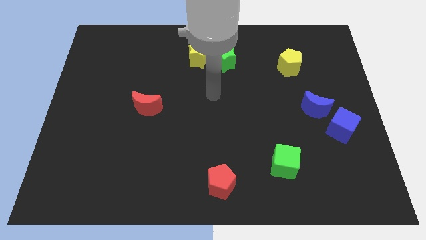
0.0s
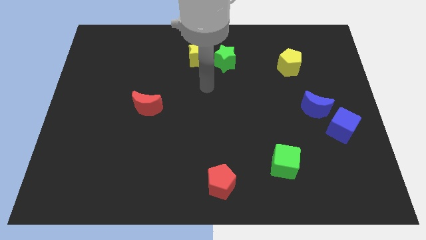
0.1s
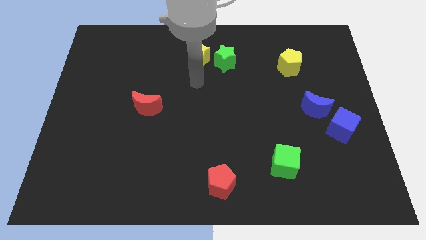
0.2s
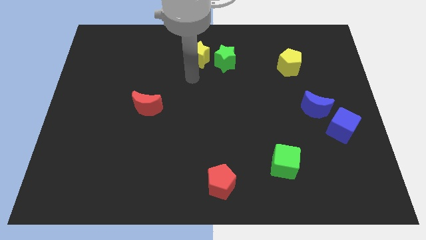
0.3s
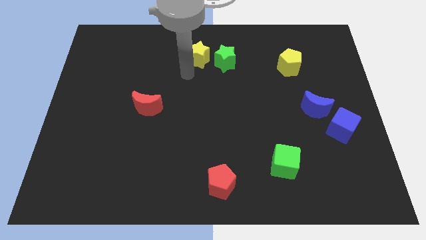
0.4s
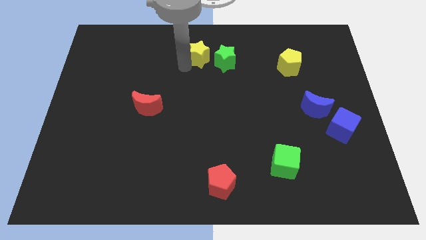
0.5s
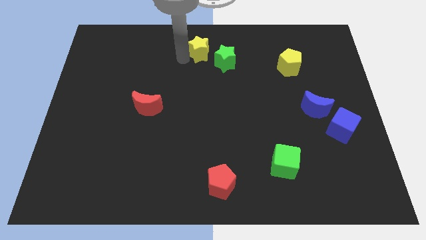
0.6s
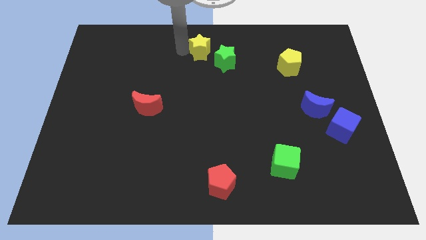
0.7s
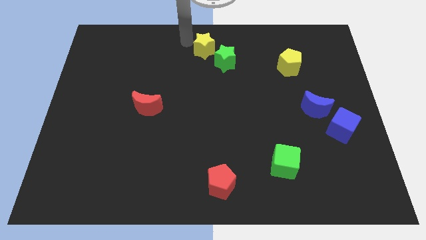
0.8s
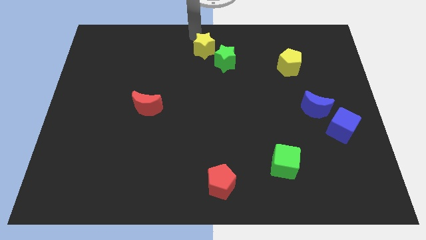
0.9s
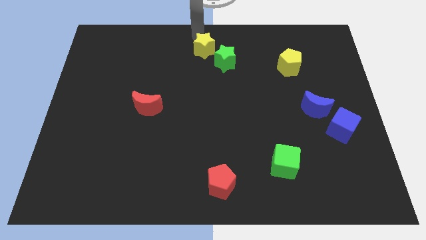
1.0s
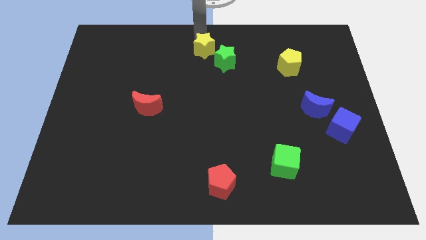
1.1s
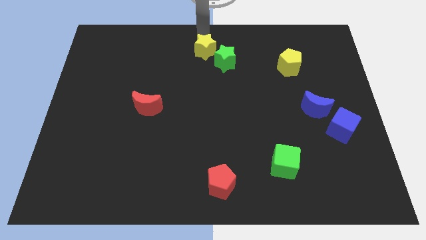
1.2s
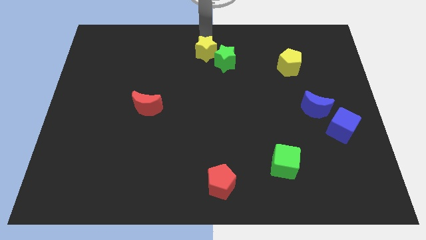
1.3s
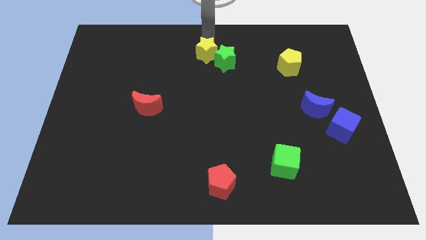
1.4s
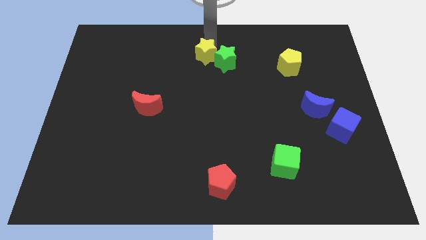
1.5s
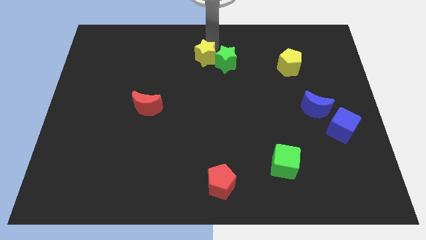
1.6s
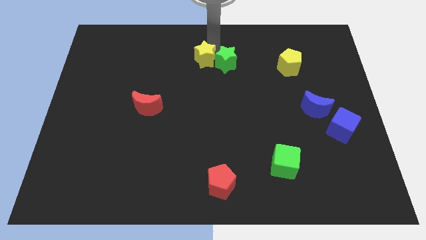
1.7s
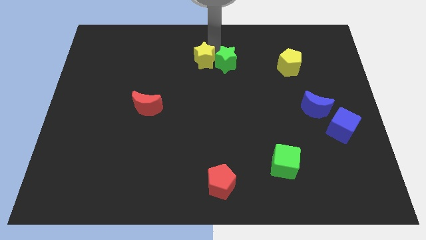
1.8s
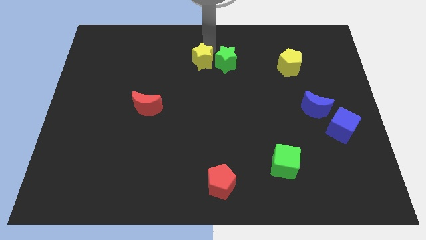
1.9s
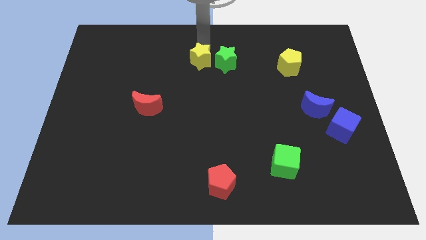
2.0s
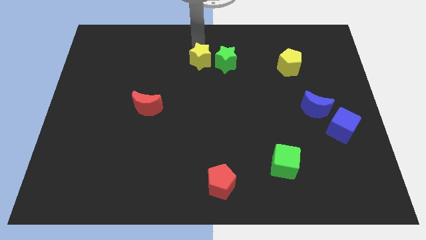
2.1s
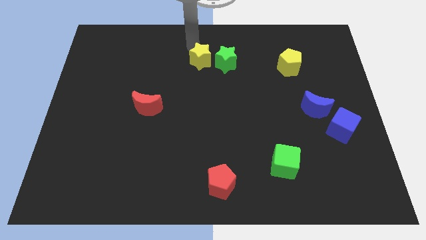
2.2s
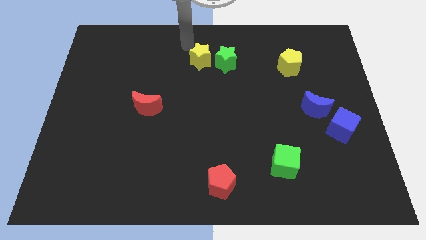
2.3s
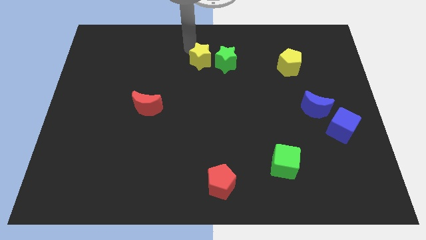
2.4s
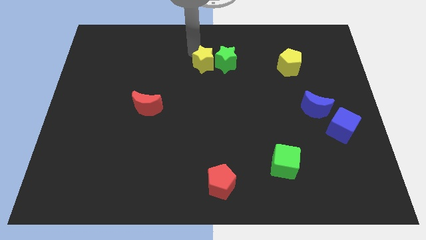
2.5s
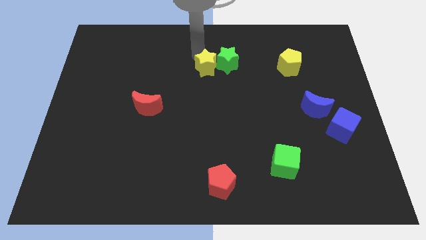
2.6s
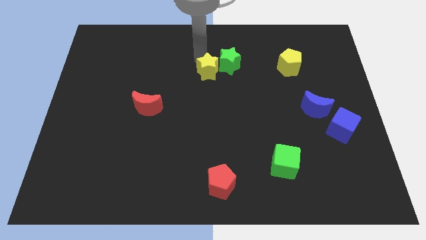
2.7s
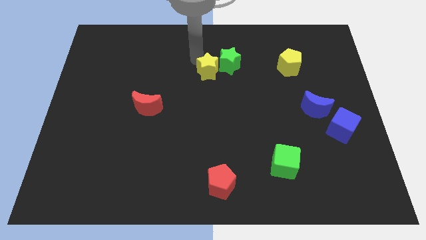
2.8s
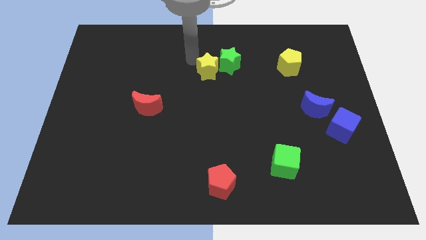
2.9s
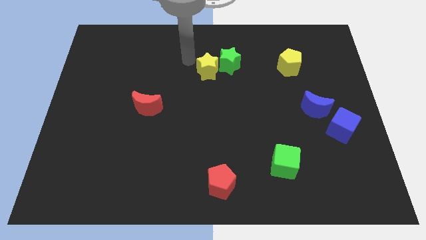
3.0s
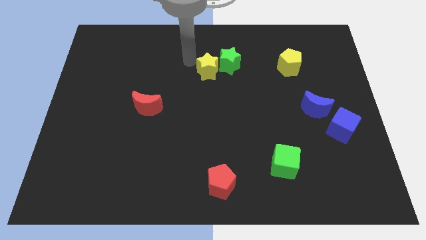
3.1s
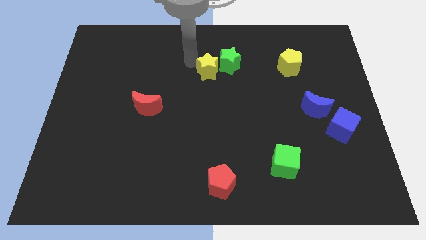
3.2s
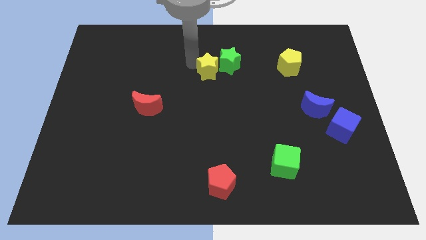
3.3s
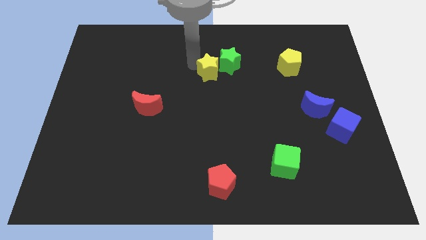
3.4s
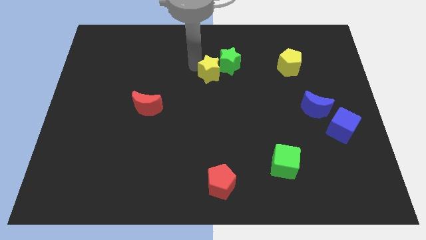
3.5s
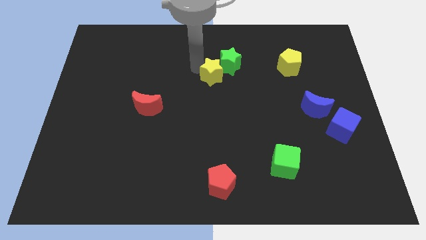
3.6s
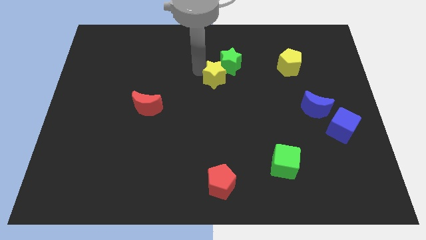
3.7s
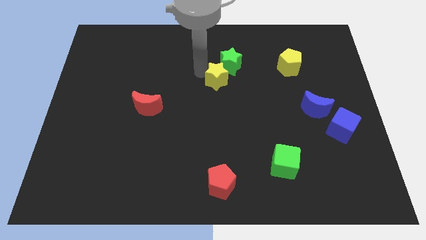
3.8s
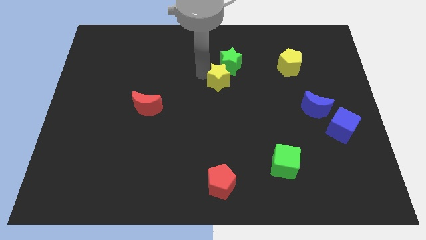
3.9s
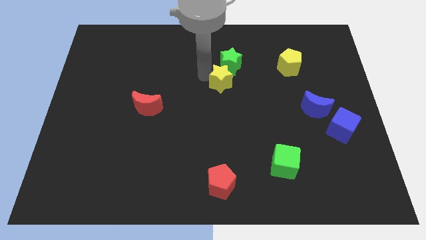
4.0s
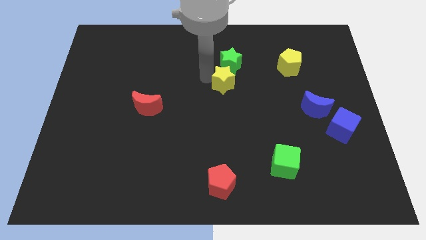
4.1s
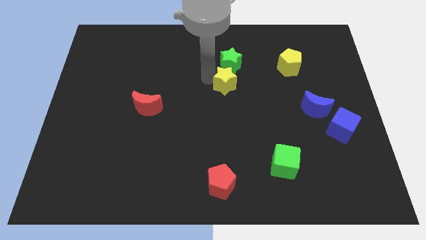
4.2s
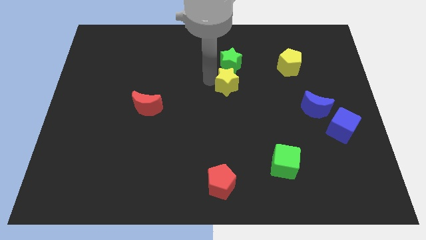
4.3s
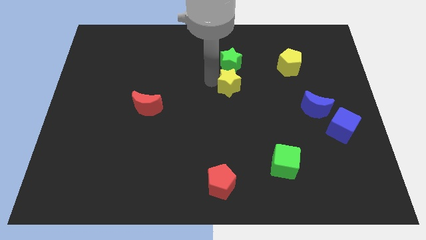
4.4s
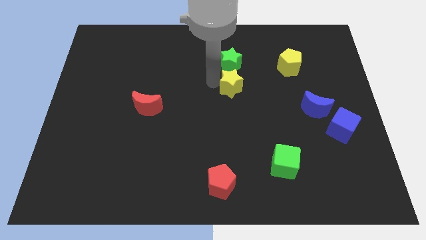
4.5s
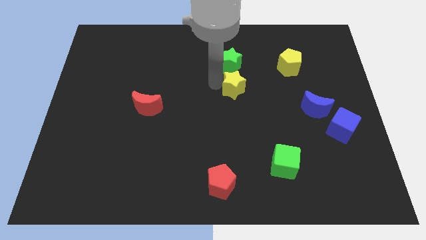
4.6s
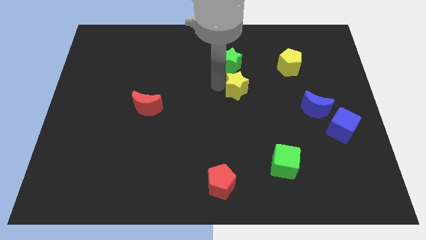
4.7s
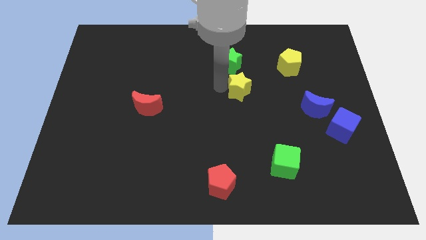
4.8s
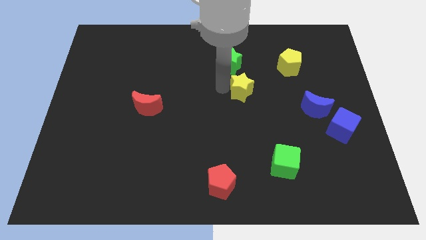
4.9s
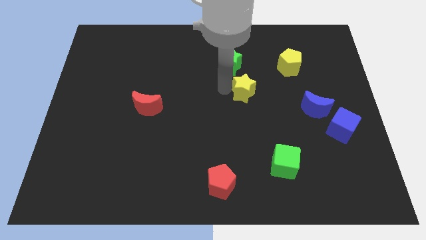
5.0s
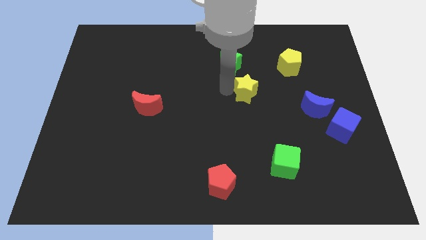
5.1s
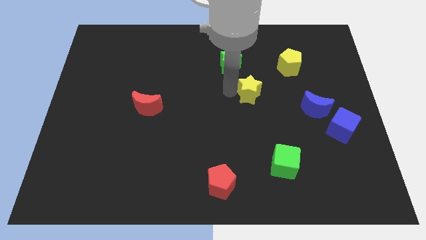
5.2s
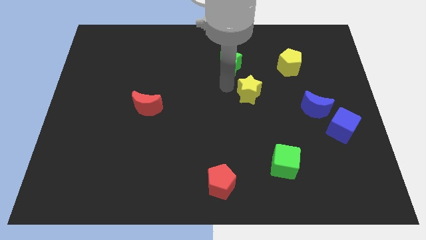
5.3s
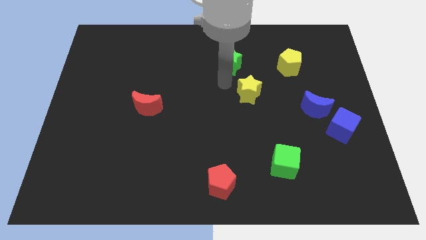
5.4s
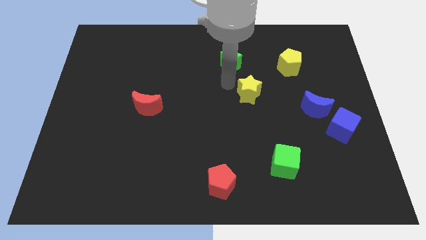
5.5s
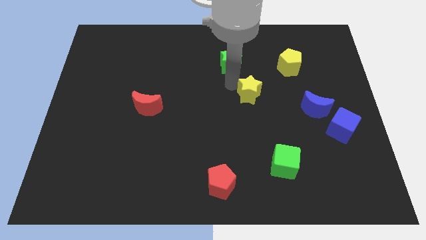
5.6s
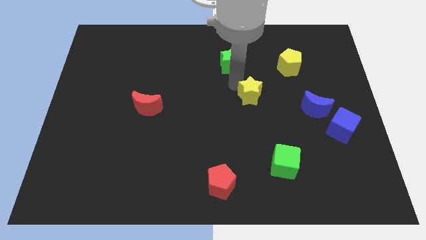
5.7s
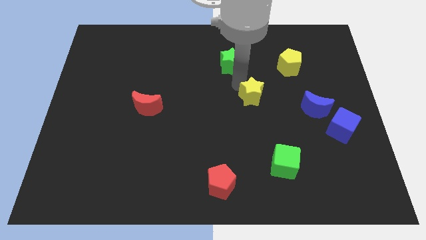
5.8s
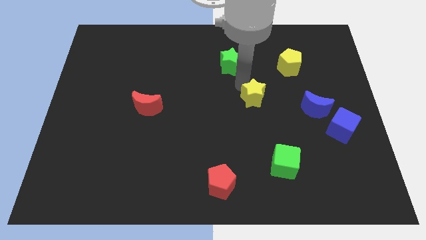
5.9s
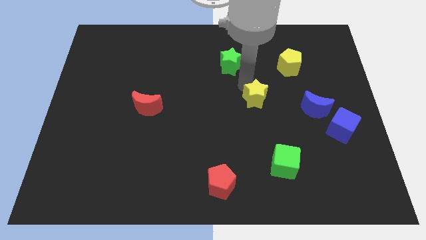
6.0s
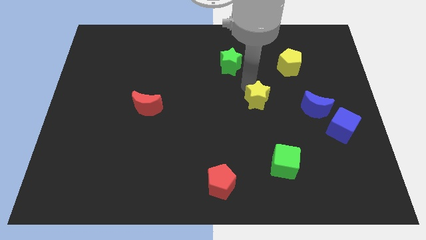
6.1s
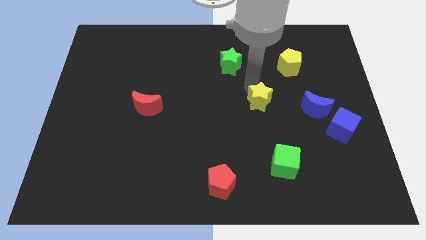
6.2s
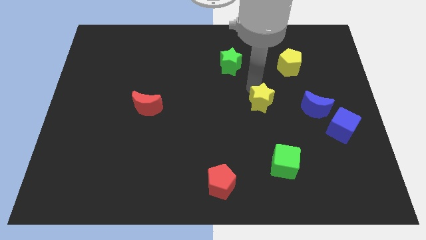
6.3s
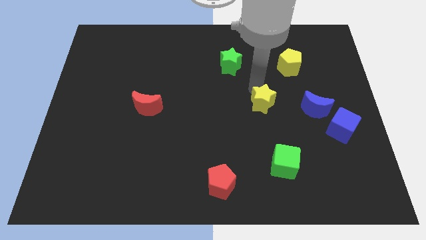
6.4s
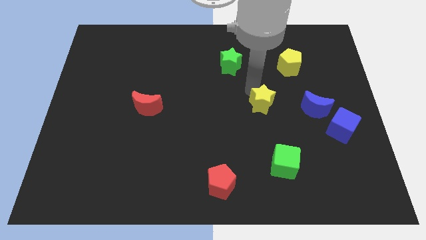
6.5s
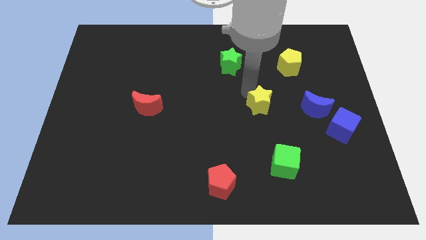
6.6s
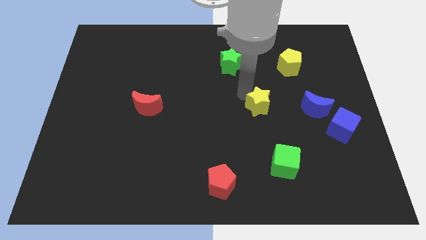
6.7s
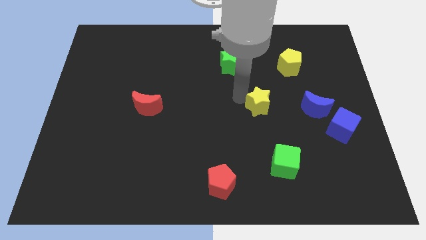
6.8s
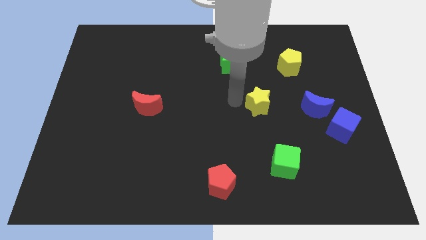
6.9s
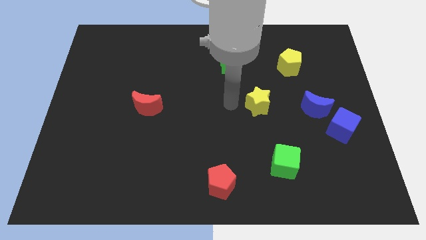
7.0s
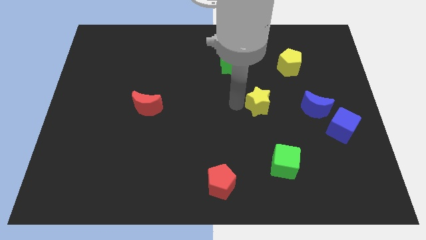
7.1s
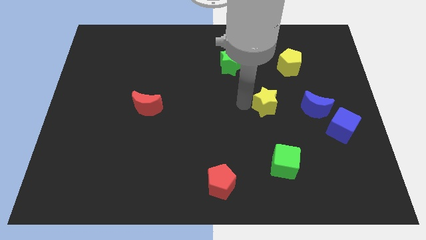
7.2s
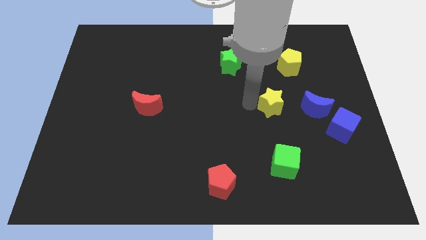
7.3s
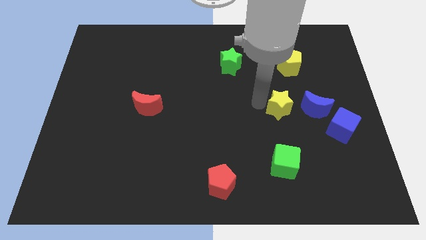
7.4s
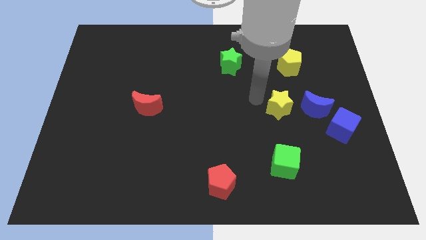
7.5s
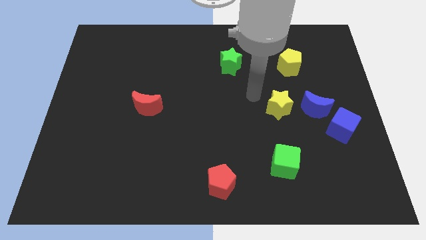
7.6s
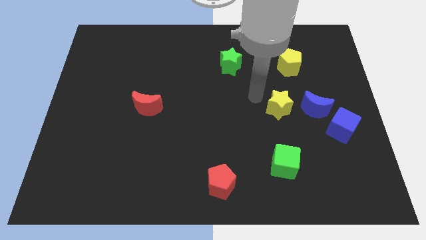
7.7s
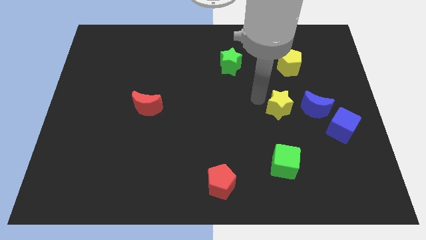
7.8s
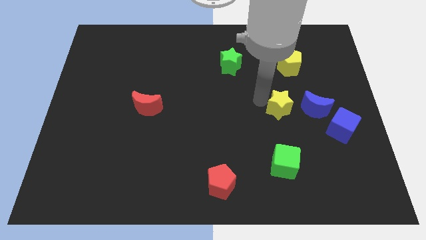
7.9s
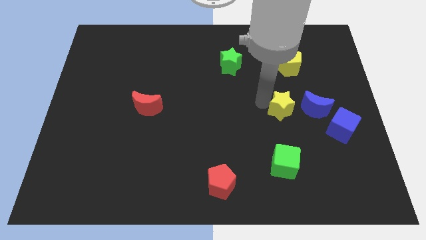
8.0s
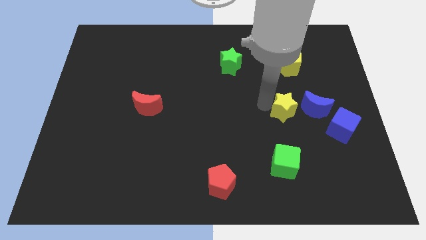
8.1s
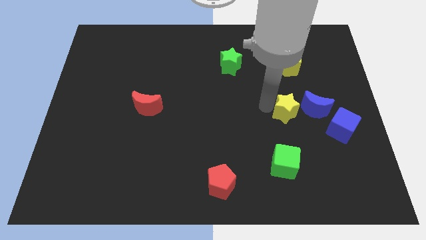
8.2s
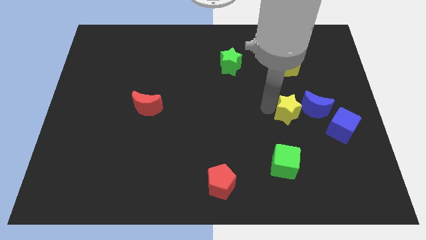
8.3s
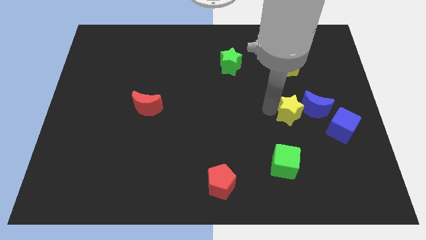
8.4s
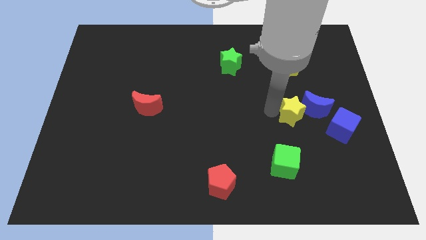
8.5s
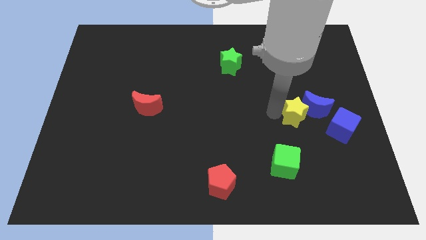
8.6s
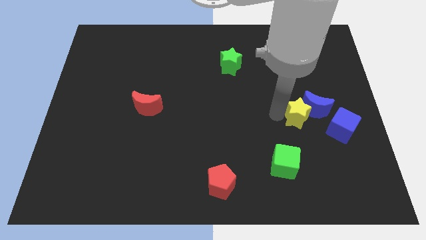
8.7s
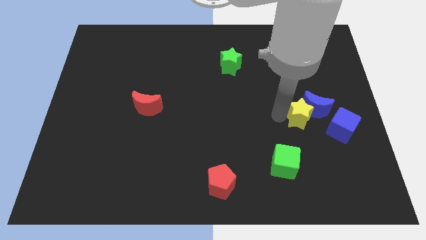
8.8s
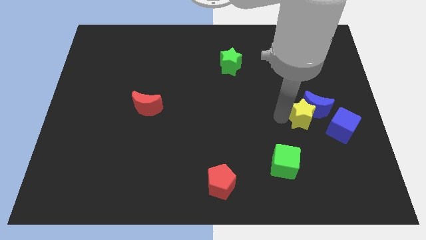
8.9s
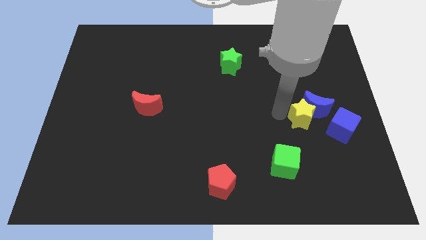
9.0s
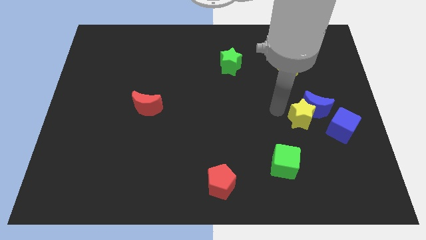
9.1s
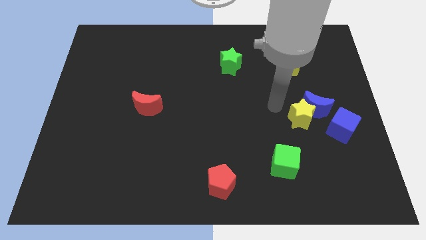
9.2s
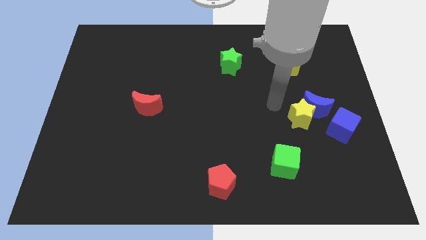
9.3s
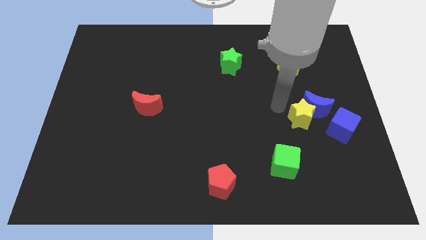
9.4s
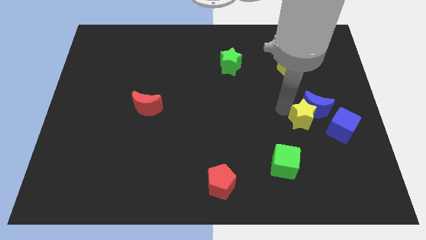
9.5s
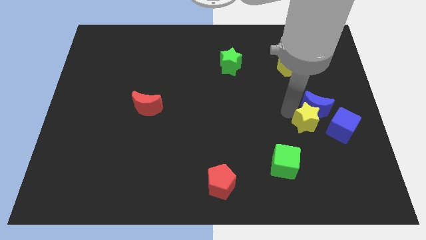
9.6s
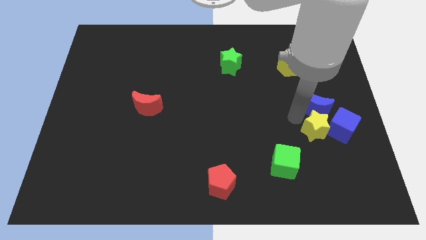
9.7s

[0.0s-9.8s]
slide the yellow star close to the blue cube
